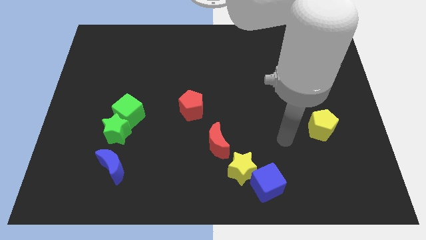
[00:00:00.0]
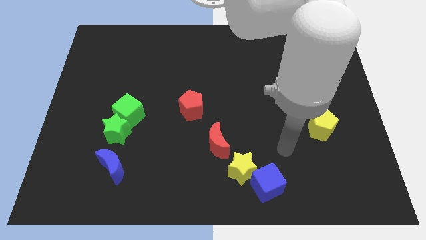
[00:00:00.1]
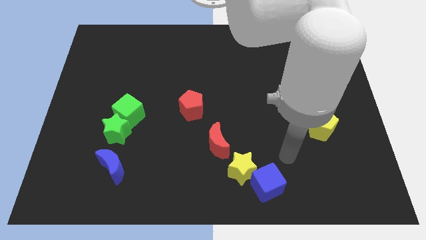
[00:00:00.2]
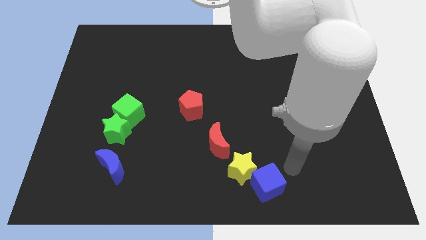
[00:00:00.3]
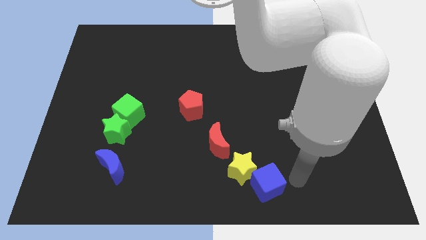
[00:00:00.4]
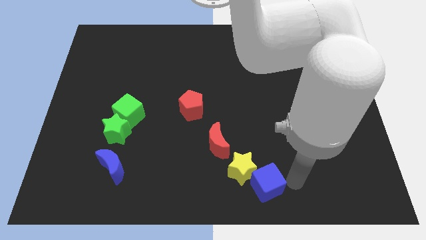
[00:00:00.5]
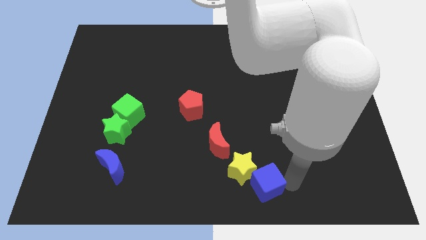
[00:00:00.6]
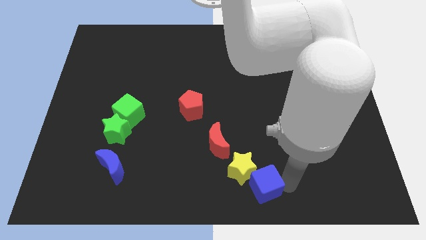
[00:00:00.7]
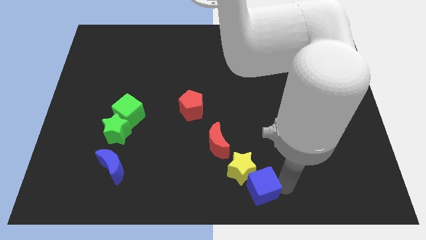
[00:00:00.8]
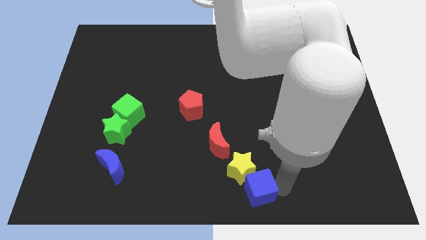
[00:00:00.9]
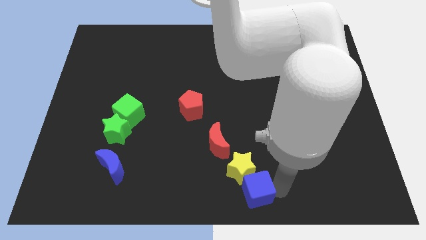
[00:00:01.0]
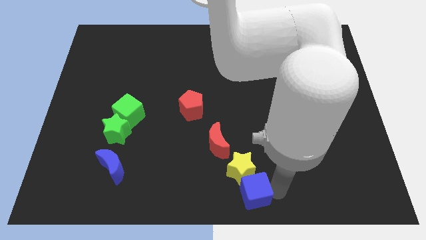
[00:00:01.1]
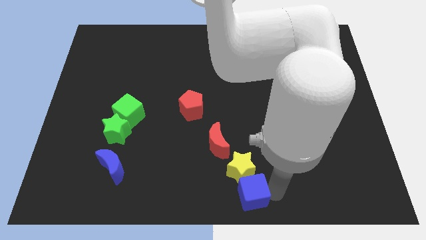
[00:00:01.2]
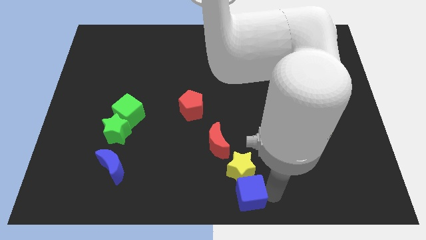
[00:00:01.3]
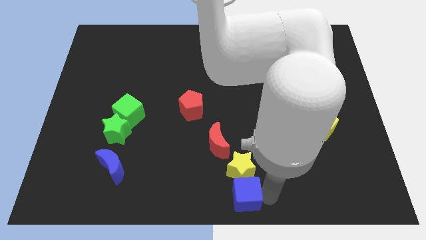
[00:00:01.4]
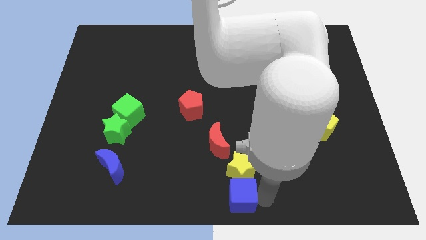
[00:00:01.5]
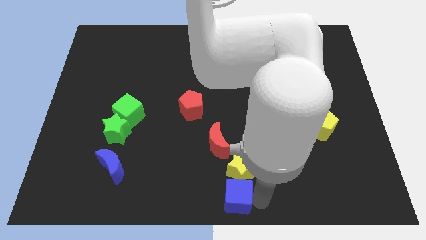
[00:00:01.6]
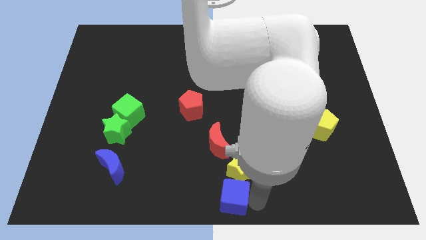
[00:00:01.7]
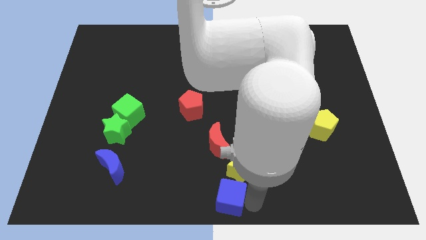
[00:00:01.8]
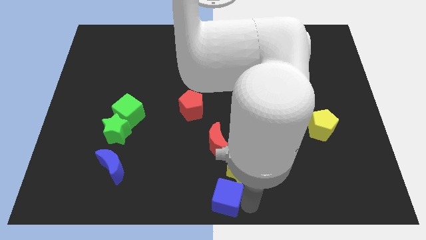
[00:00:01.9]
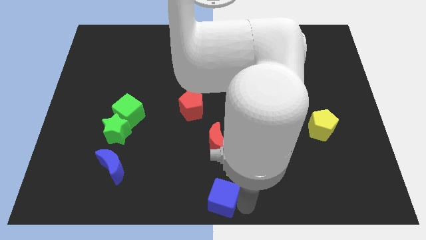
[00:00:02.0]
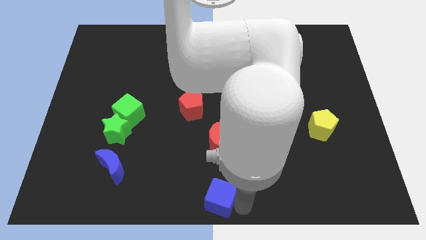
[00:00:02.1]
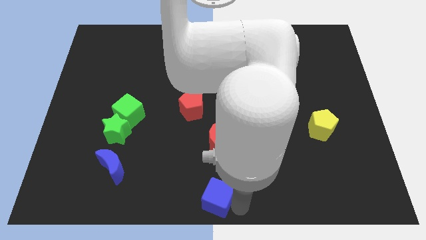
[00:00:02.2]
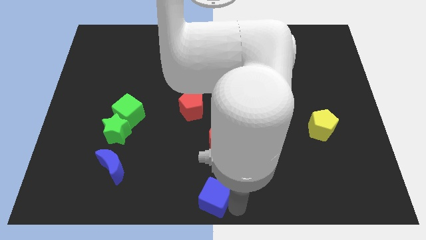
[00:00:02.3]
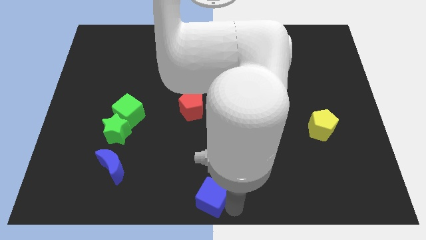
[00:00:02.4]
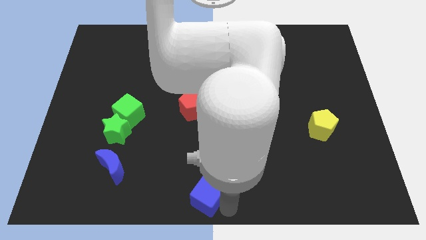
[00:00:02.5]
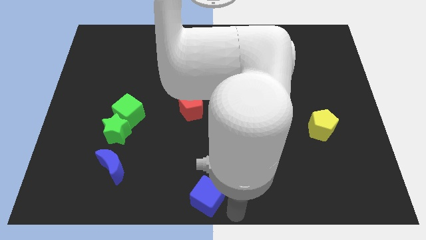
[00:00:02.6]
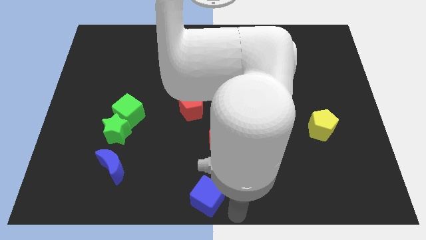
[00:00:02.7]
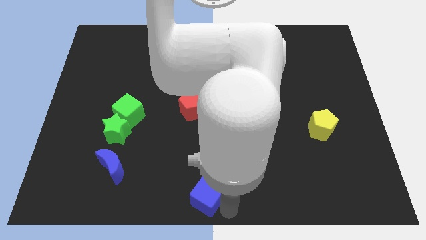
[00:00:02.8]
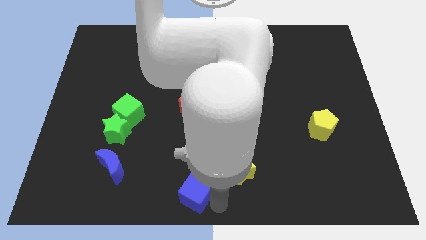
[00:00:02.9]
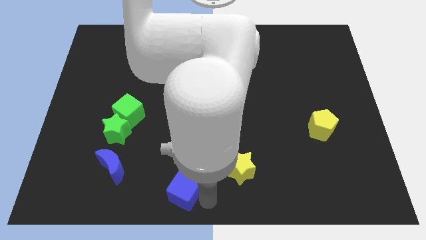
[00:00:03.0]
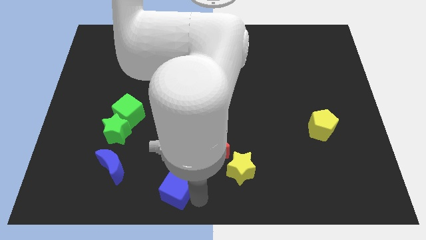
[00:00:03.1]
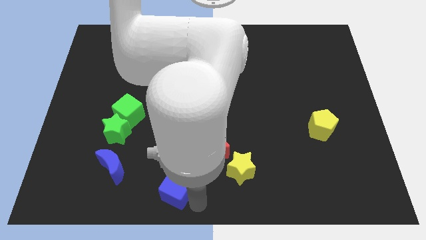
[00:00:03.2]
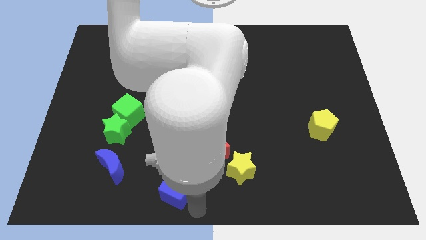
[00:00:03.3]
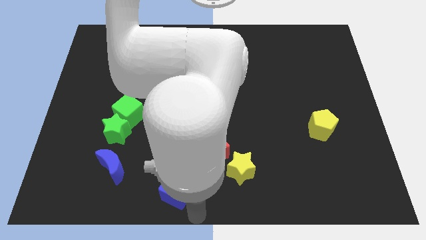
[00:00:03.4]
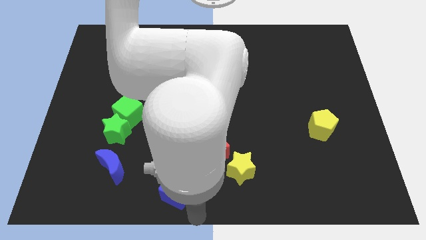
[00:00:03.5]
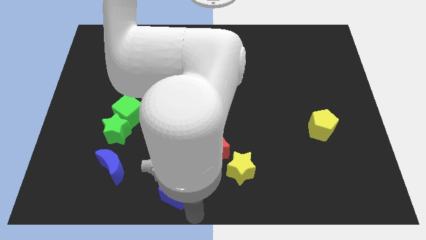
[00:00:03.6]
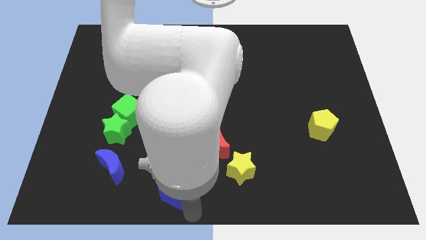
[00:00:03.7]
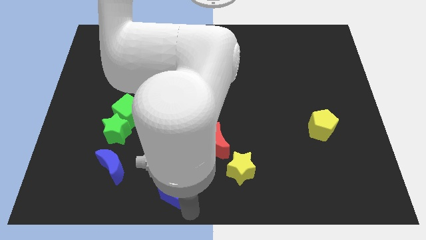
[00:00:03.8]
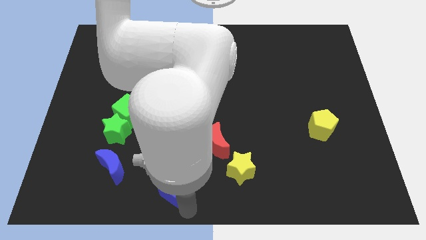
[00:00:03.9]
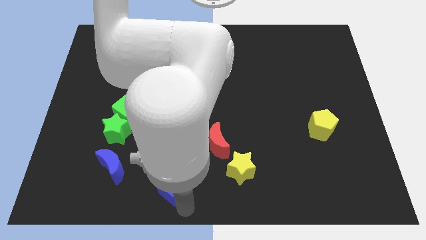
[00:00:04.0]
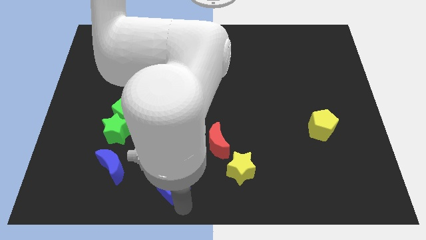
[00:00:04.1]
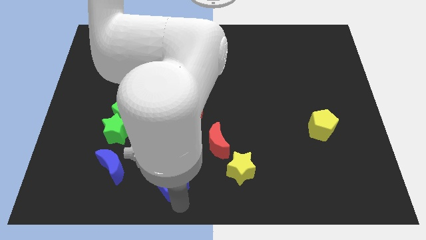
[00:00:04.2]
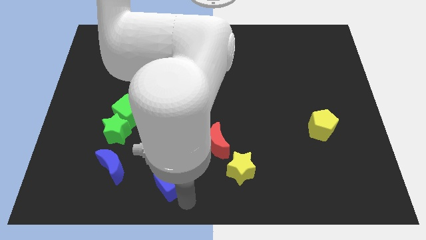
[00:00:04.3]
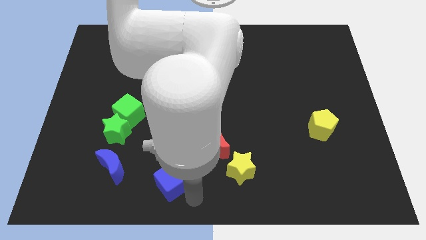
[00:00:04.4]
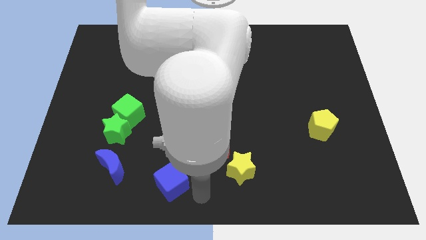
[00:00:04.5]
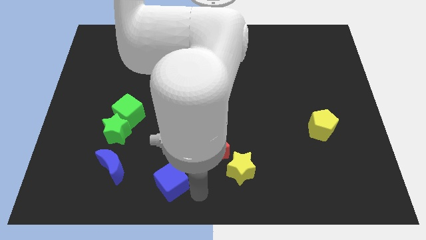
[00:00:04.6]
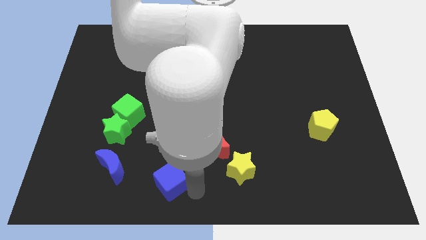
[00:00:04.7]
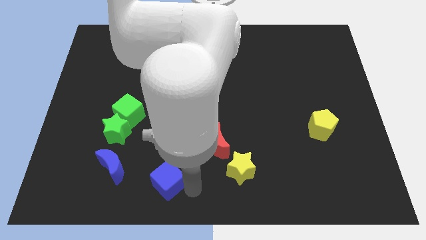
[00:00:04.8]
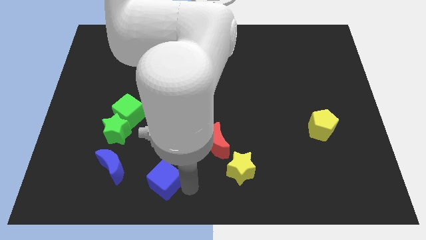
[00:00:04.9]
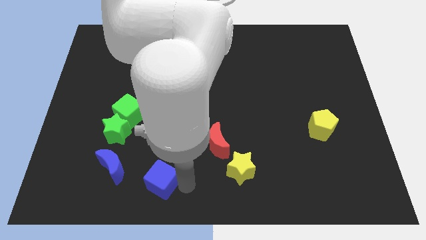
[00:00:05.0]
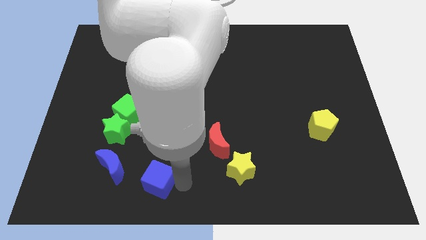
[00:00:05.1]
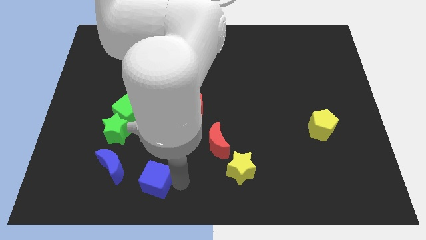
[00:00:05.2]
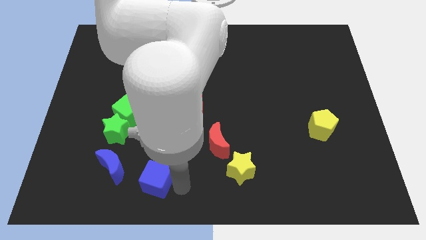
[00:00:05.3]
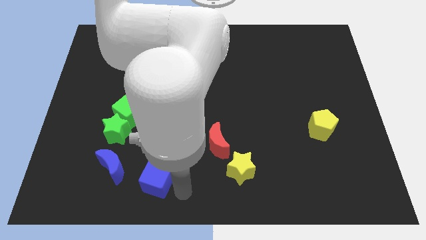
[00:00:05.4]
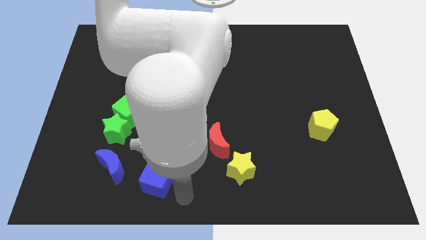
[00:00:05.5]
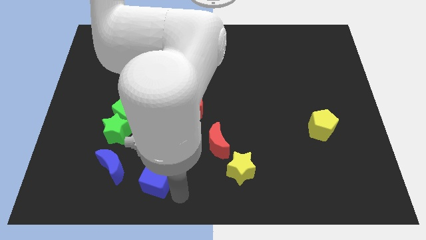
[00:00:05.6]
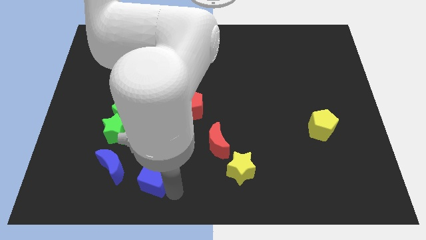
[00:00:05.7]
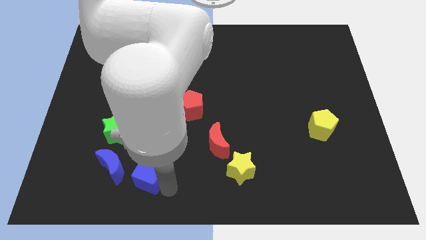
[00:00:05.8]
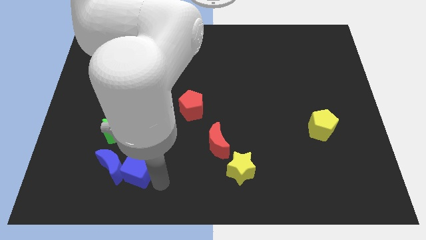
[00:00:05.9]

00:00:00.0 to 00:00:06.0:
put the blue cube next to the blue moon

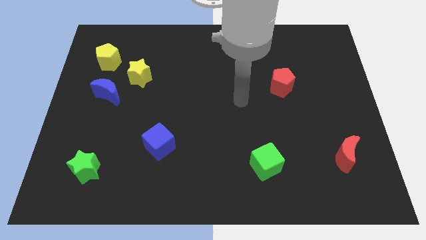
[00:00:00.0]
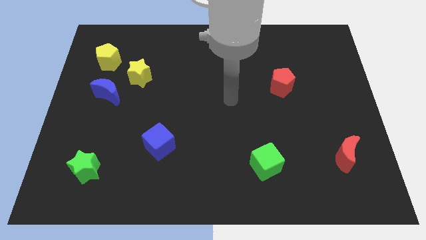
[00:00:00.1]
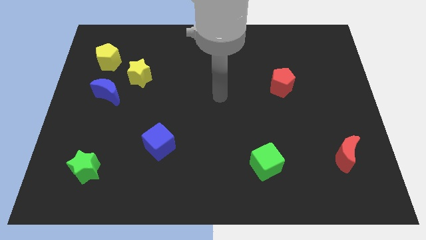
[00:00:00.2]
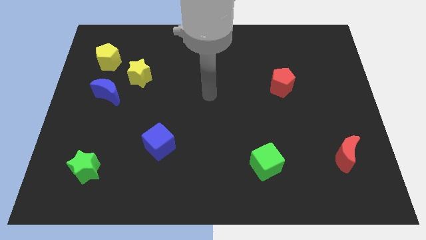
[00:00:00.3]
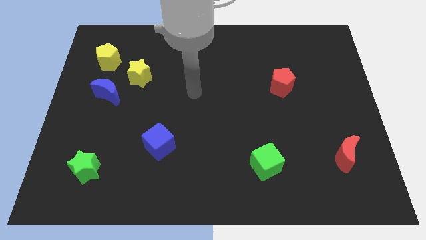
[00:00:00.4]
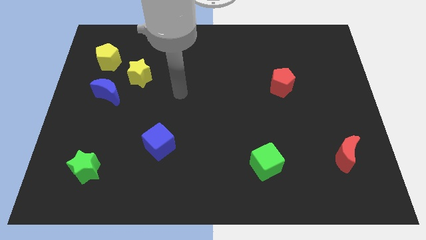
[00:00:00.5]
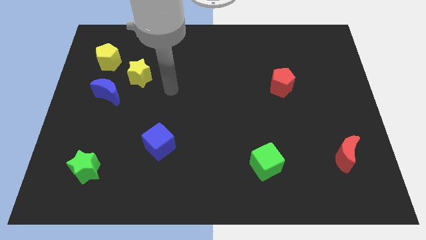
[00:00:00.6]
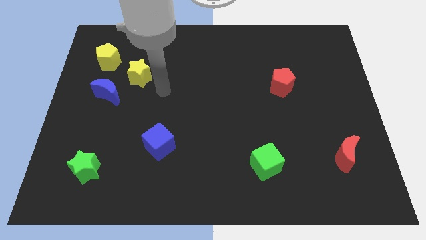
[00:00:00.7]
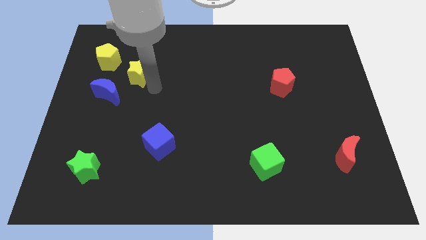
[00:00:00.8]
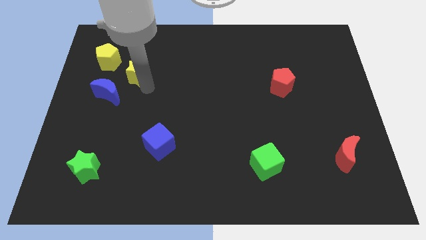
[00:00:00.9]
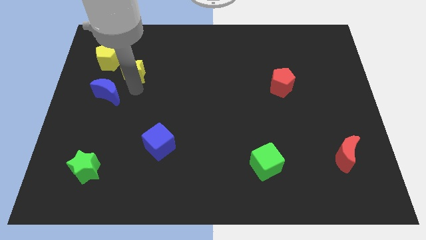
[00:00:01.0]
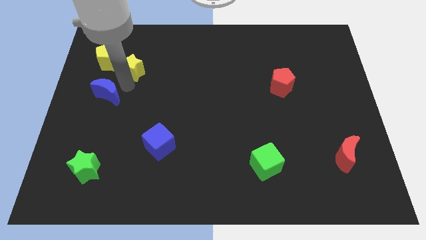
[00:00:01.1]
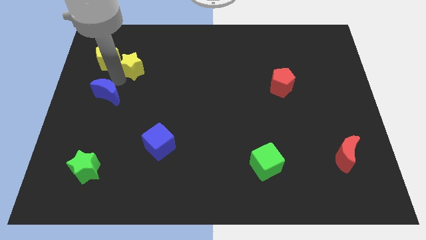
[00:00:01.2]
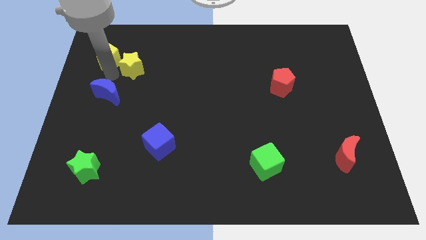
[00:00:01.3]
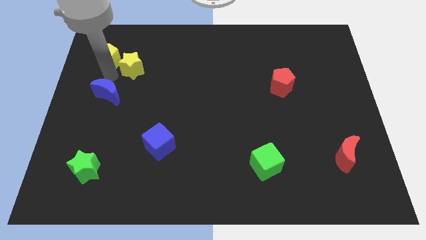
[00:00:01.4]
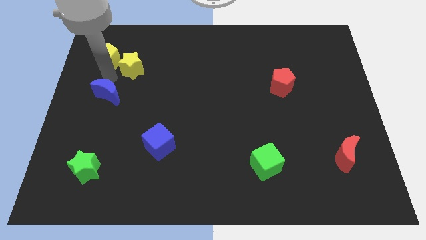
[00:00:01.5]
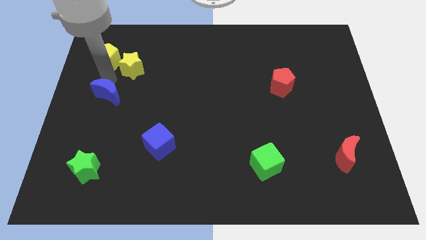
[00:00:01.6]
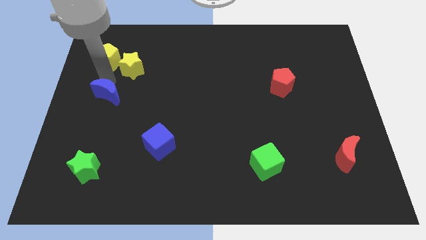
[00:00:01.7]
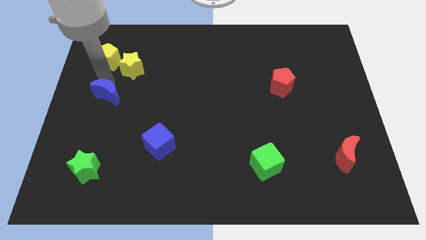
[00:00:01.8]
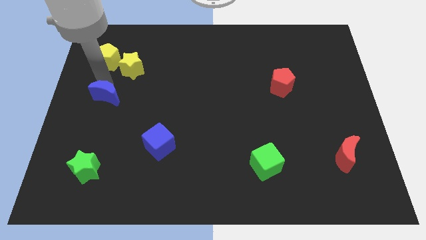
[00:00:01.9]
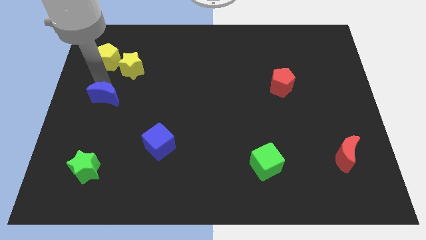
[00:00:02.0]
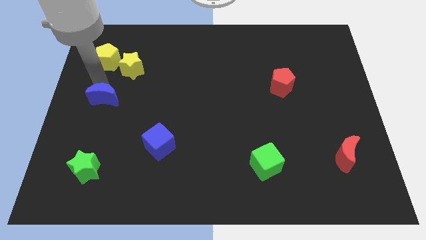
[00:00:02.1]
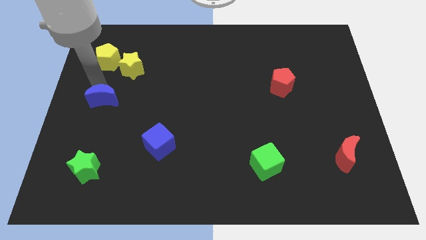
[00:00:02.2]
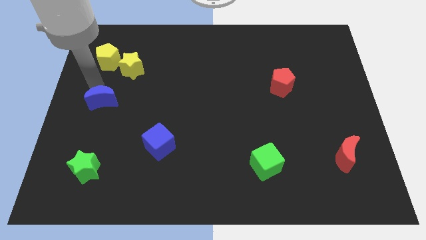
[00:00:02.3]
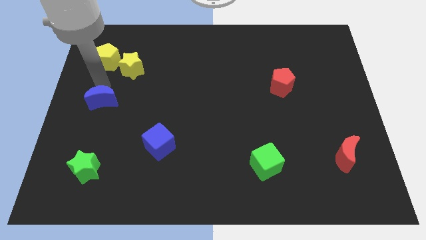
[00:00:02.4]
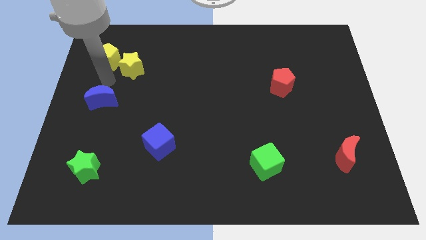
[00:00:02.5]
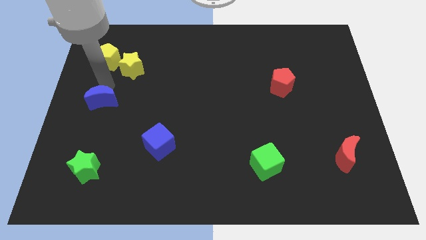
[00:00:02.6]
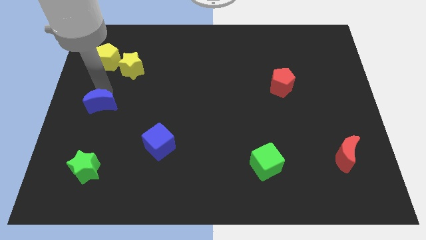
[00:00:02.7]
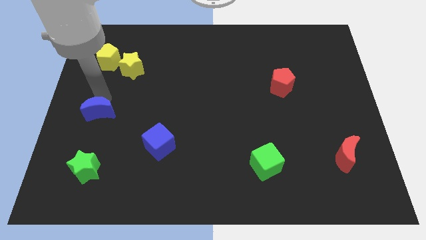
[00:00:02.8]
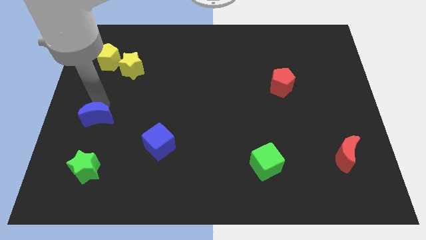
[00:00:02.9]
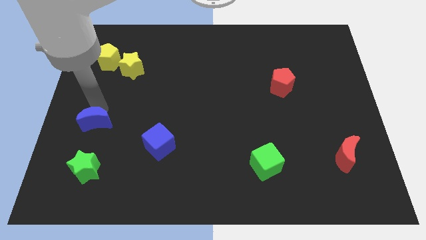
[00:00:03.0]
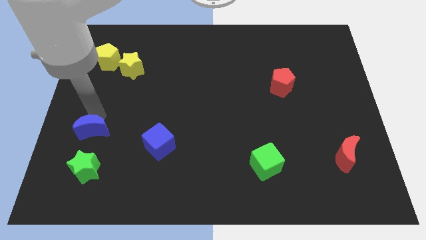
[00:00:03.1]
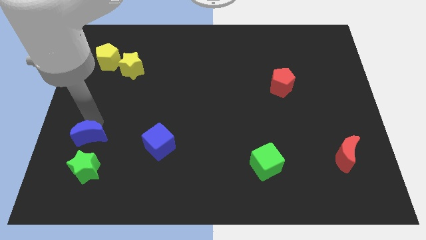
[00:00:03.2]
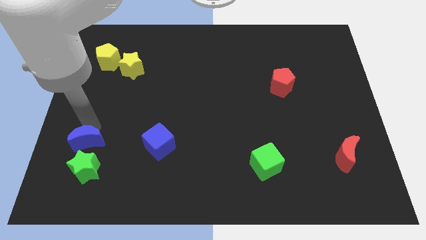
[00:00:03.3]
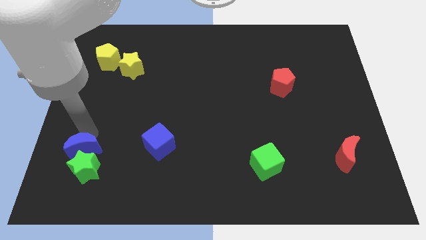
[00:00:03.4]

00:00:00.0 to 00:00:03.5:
put the blue moon close to the green star
